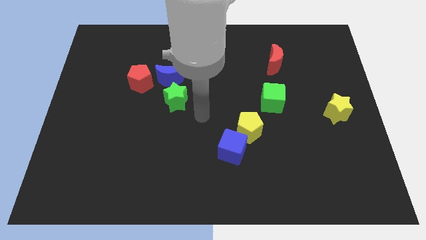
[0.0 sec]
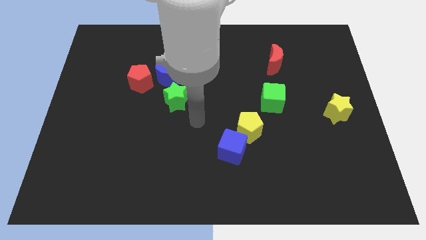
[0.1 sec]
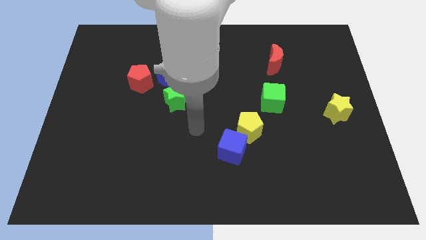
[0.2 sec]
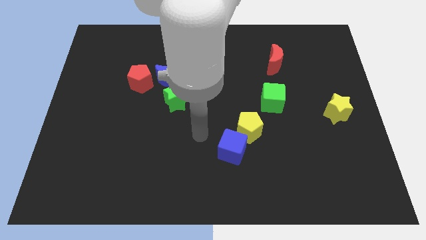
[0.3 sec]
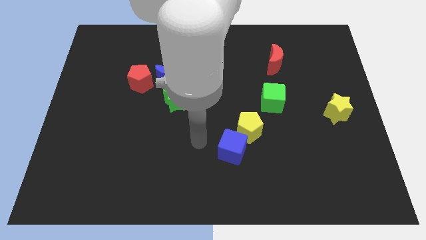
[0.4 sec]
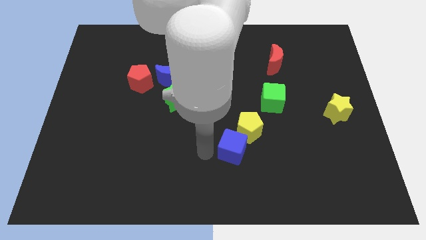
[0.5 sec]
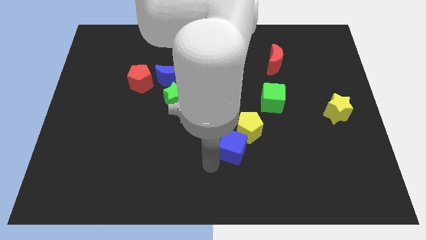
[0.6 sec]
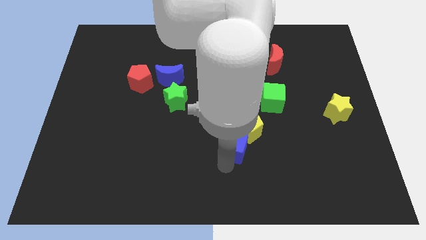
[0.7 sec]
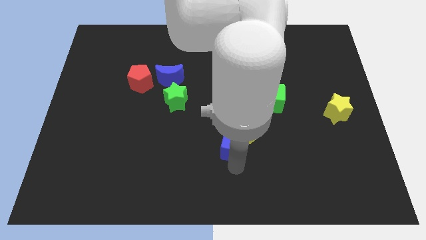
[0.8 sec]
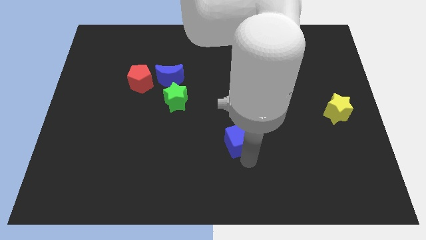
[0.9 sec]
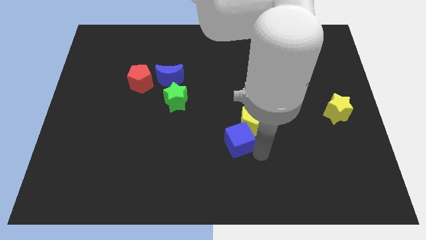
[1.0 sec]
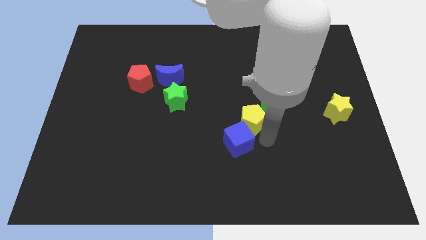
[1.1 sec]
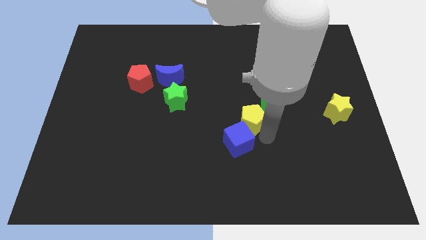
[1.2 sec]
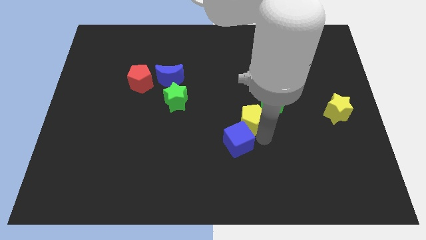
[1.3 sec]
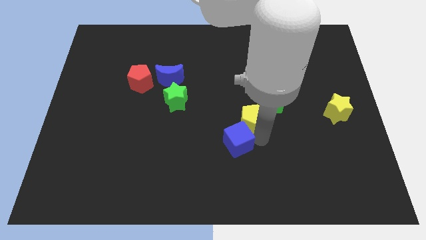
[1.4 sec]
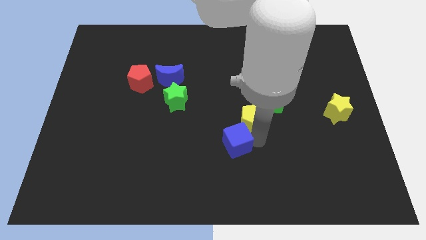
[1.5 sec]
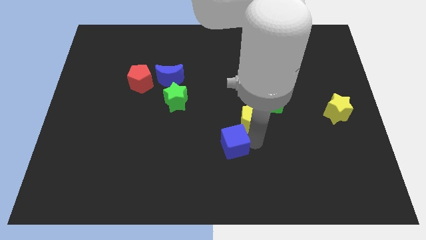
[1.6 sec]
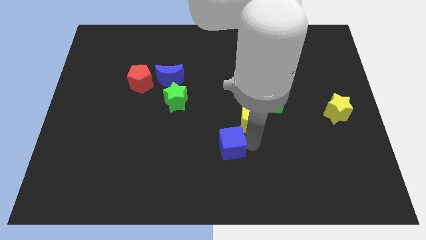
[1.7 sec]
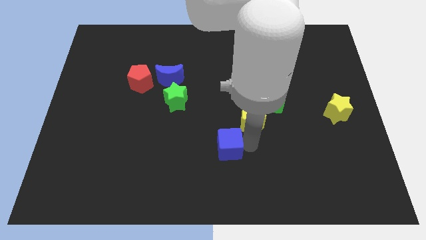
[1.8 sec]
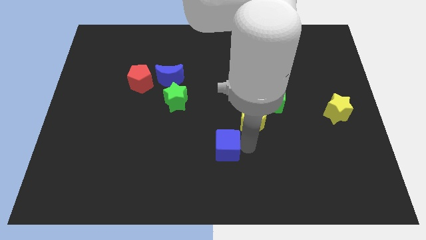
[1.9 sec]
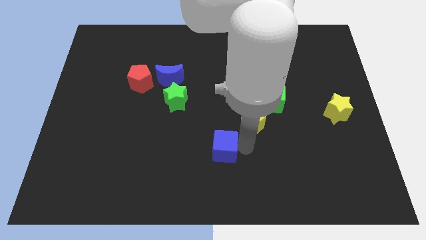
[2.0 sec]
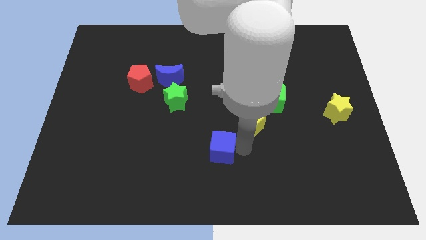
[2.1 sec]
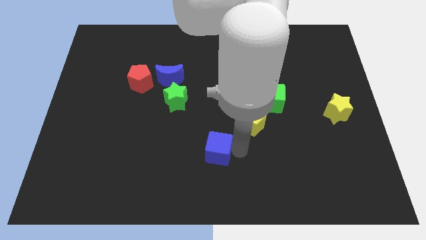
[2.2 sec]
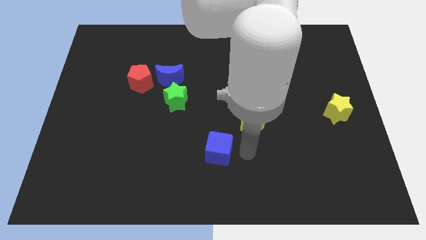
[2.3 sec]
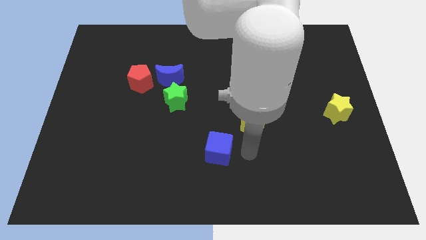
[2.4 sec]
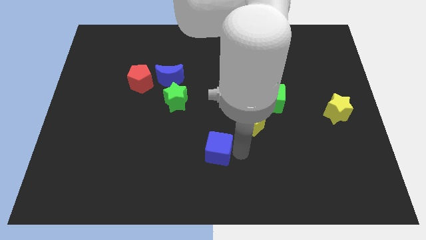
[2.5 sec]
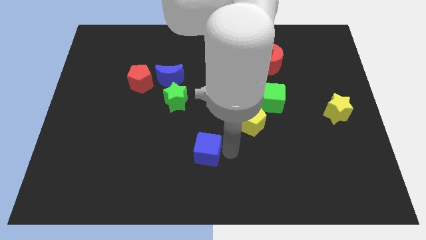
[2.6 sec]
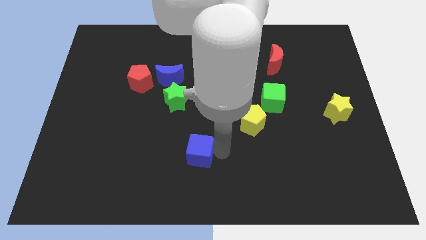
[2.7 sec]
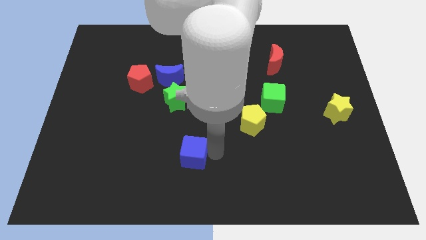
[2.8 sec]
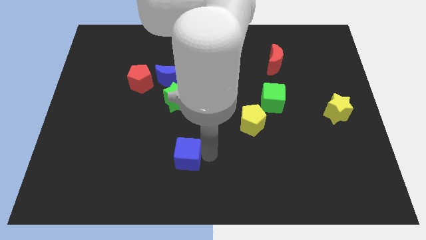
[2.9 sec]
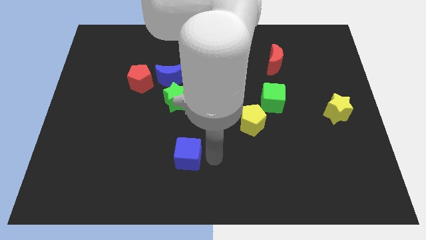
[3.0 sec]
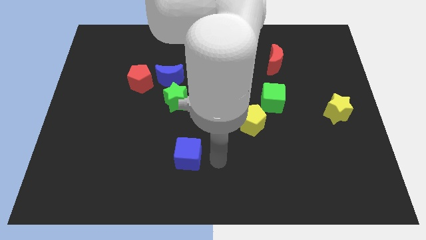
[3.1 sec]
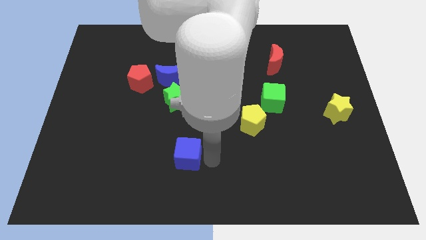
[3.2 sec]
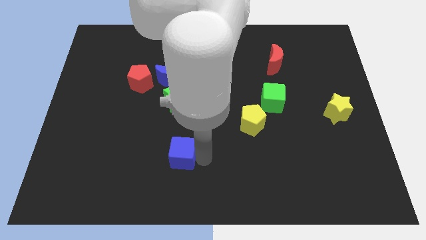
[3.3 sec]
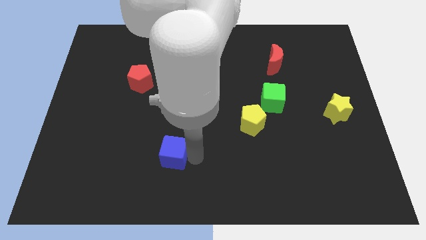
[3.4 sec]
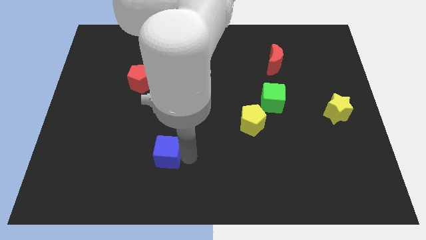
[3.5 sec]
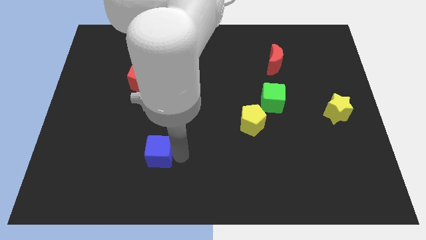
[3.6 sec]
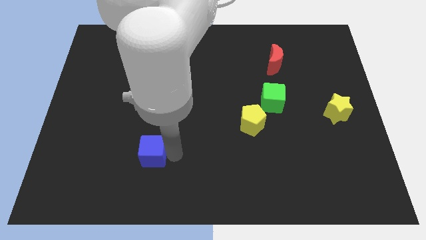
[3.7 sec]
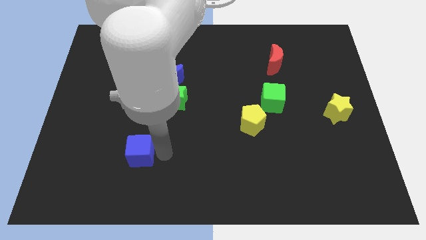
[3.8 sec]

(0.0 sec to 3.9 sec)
move the blue cube to the left

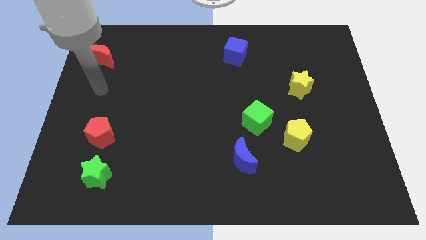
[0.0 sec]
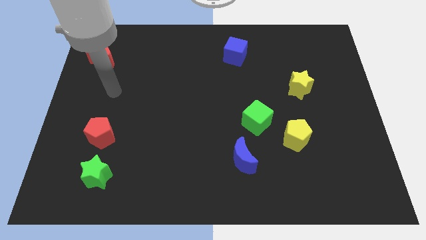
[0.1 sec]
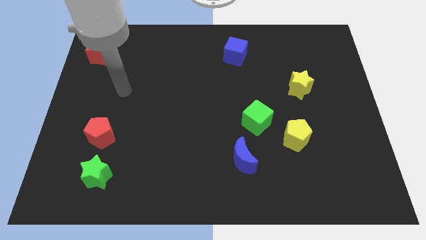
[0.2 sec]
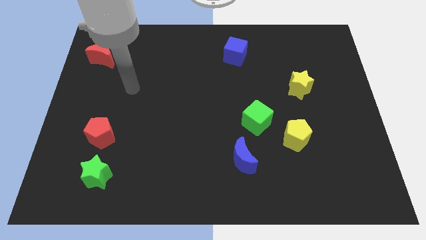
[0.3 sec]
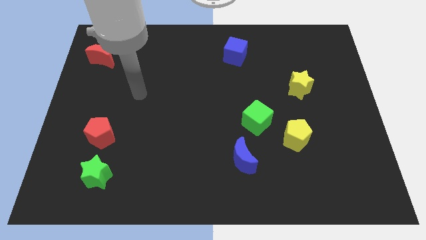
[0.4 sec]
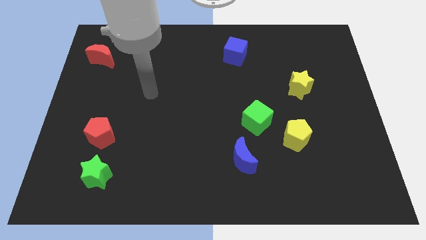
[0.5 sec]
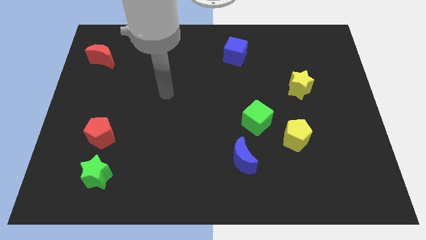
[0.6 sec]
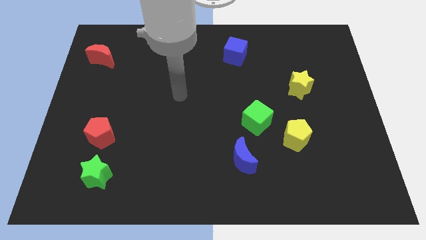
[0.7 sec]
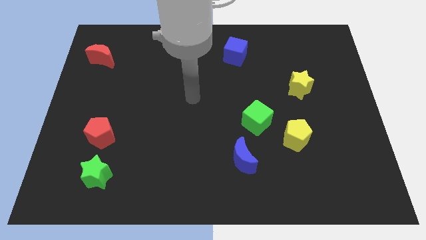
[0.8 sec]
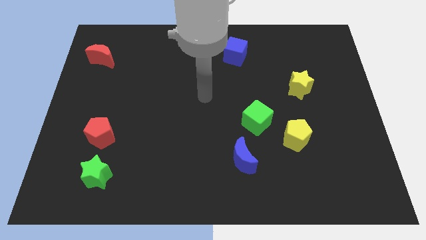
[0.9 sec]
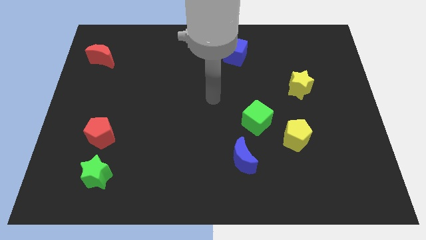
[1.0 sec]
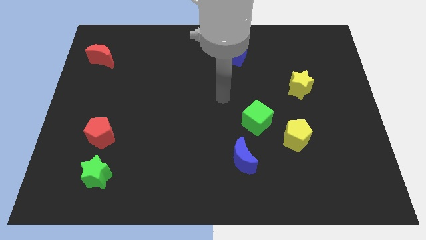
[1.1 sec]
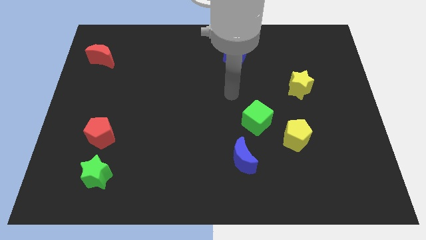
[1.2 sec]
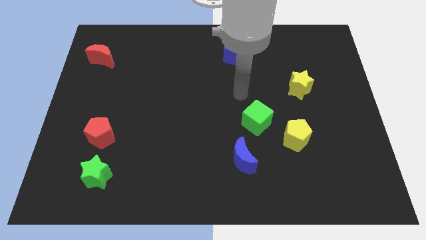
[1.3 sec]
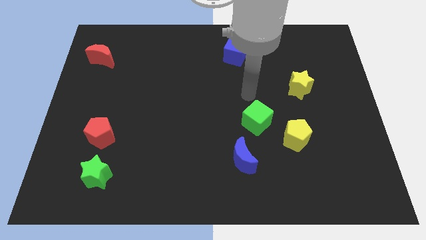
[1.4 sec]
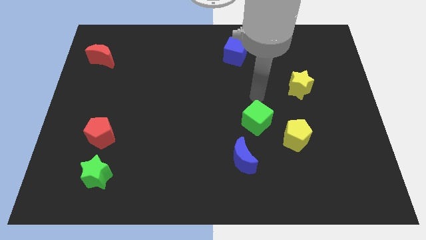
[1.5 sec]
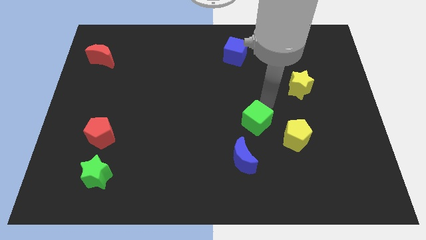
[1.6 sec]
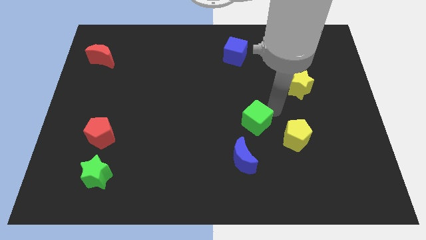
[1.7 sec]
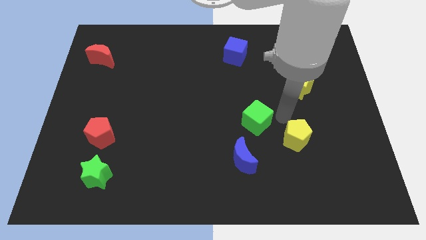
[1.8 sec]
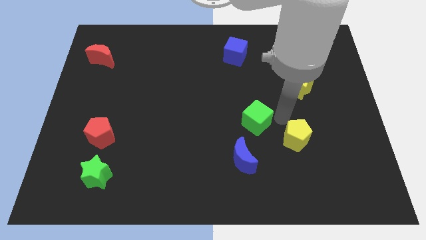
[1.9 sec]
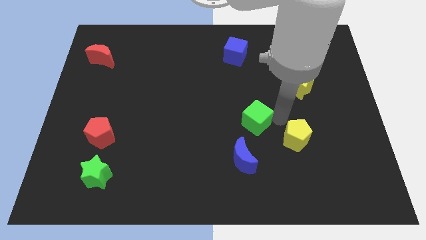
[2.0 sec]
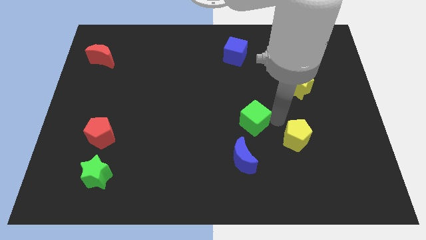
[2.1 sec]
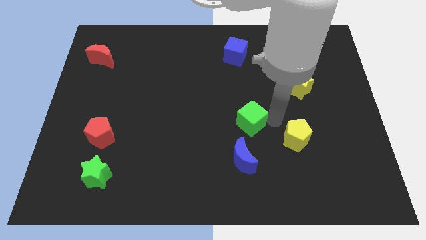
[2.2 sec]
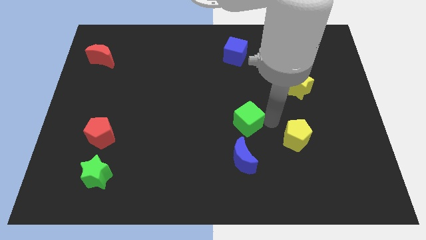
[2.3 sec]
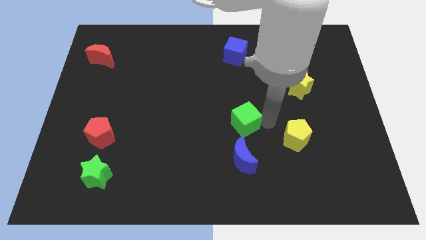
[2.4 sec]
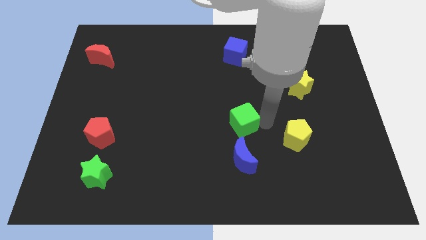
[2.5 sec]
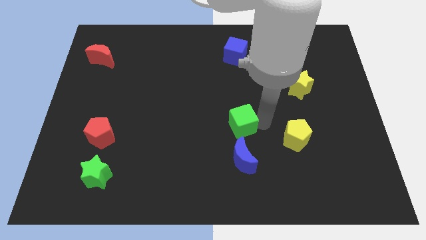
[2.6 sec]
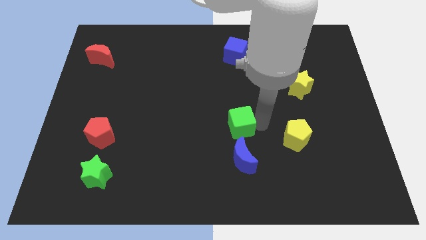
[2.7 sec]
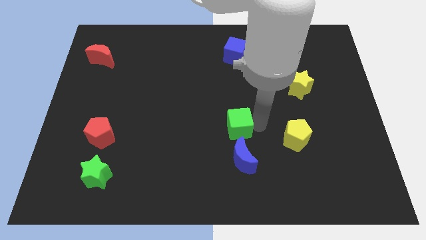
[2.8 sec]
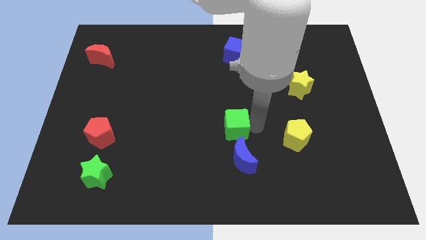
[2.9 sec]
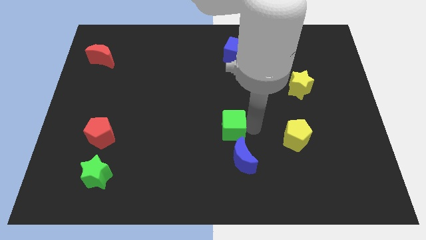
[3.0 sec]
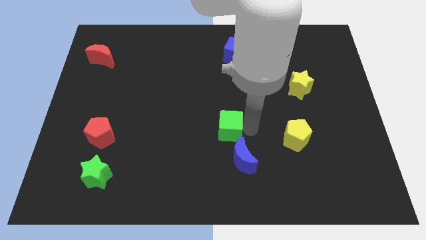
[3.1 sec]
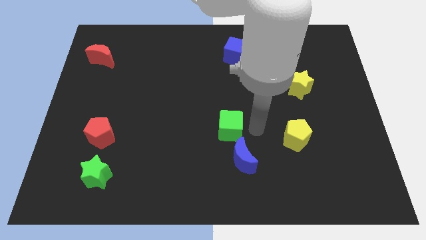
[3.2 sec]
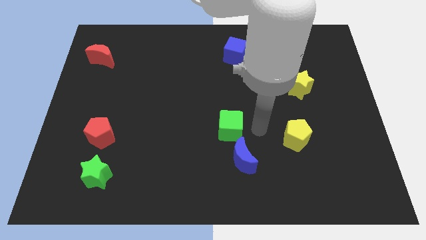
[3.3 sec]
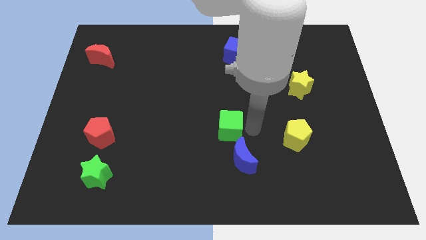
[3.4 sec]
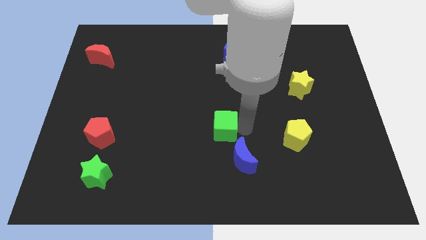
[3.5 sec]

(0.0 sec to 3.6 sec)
slightly move the green cube left

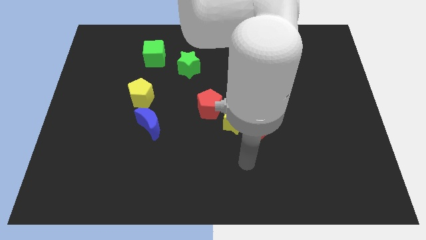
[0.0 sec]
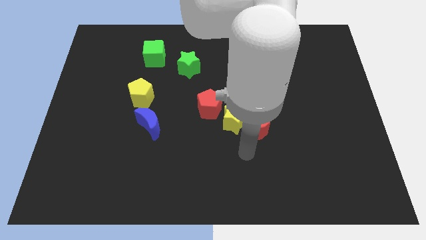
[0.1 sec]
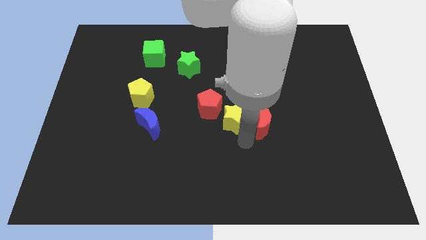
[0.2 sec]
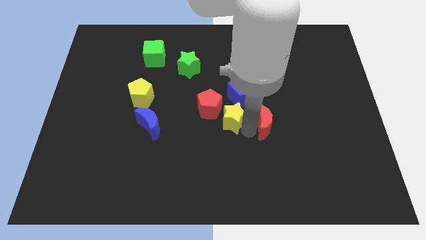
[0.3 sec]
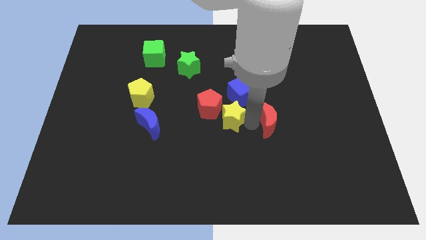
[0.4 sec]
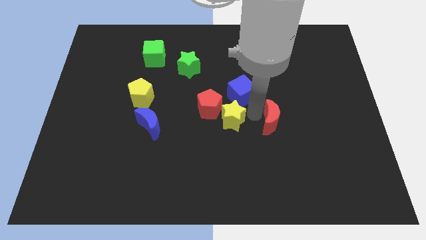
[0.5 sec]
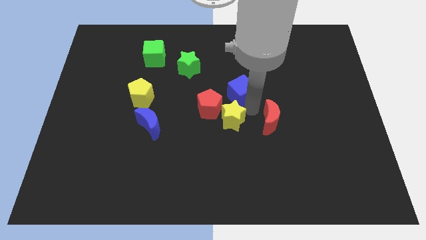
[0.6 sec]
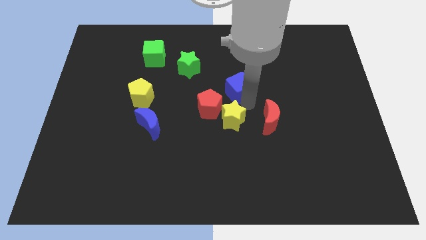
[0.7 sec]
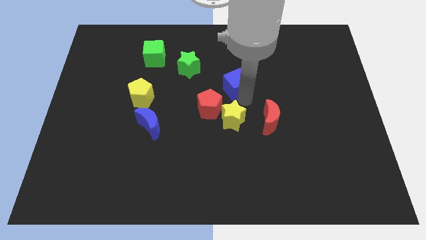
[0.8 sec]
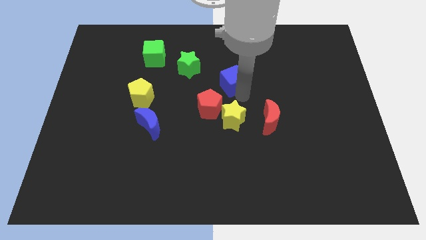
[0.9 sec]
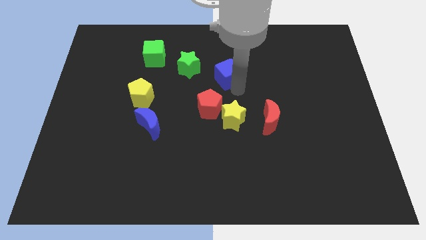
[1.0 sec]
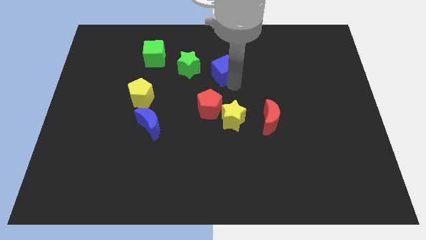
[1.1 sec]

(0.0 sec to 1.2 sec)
move the blue cube a little bit upwards and left
